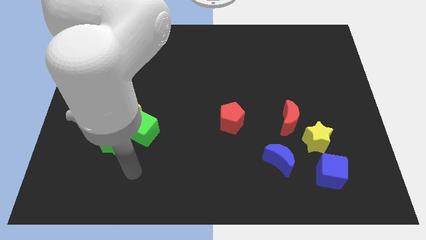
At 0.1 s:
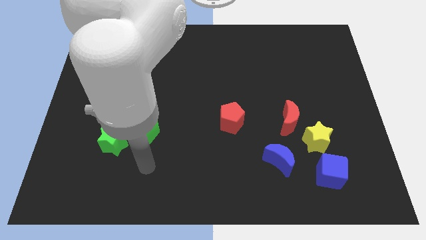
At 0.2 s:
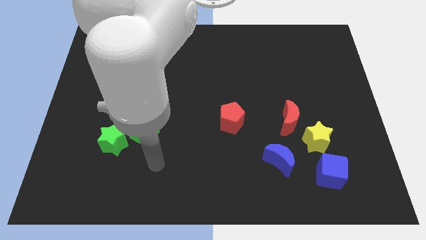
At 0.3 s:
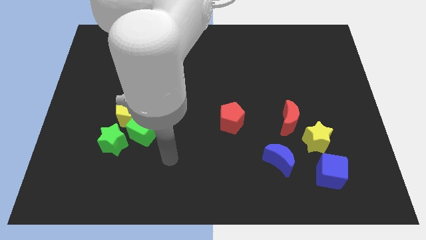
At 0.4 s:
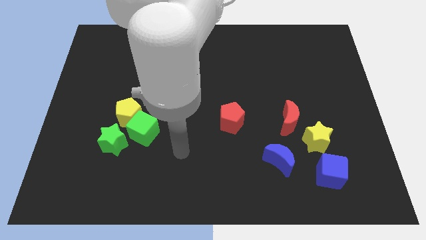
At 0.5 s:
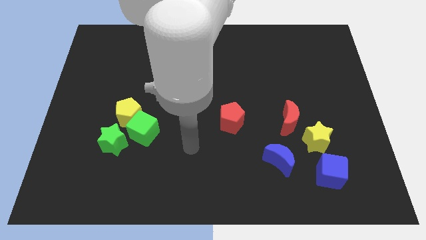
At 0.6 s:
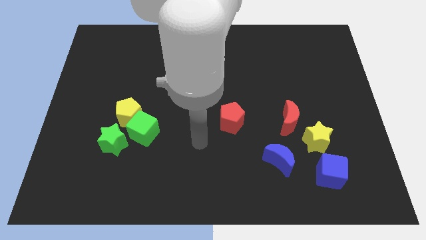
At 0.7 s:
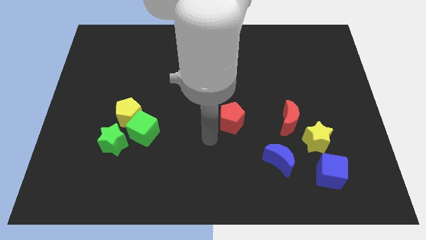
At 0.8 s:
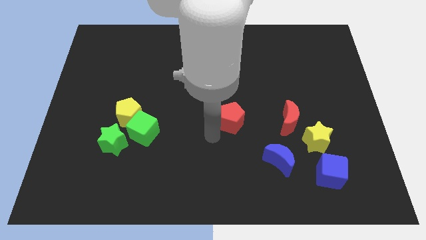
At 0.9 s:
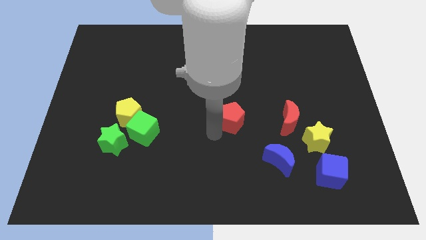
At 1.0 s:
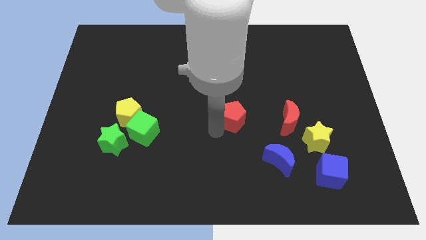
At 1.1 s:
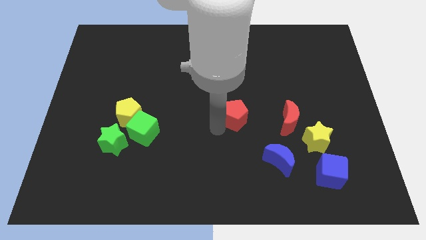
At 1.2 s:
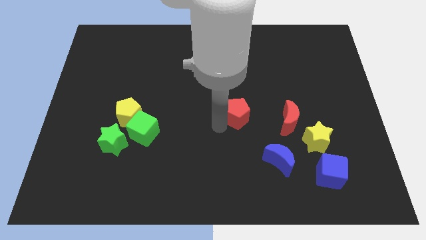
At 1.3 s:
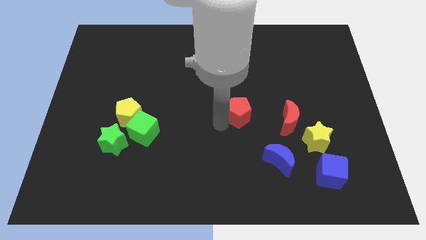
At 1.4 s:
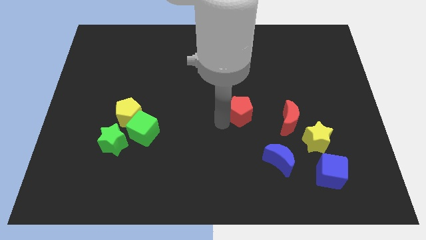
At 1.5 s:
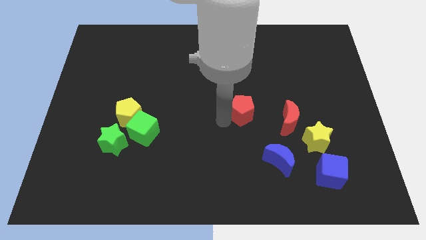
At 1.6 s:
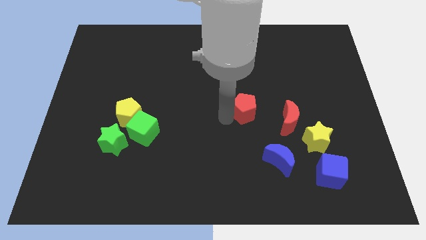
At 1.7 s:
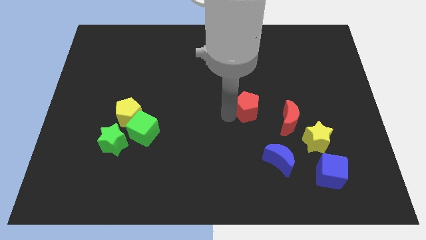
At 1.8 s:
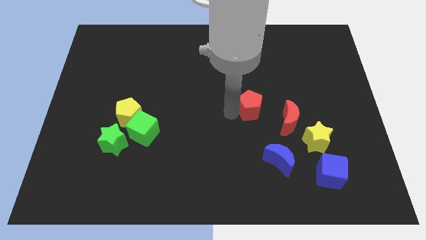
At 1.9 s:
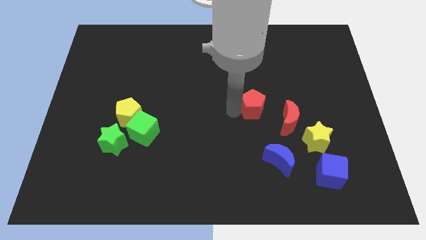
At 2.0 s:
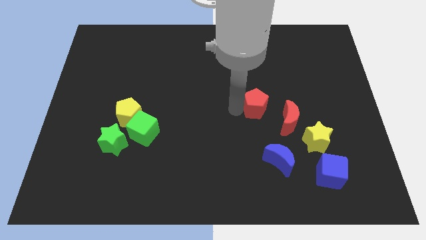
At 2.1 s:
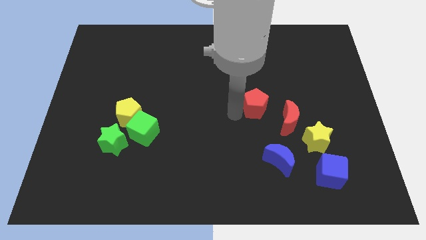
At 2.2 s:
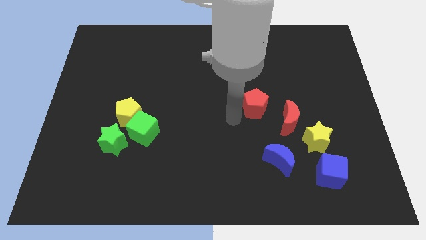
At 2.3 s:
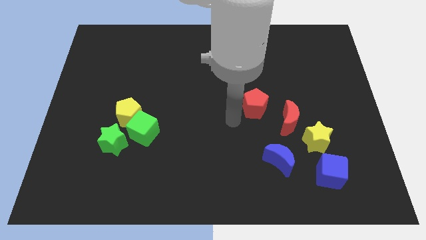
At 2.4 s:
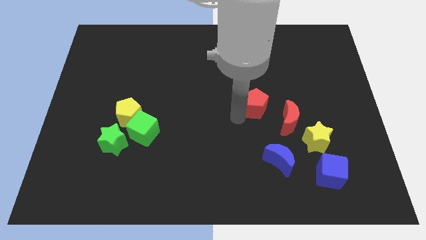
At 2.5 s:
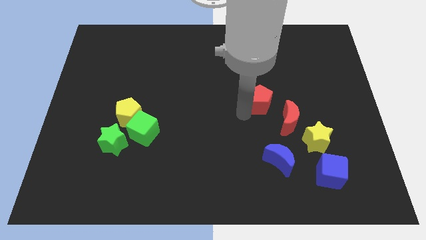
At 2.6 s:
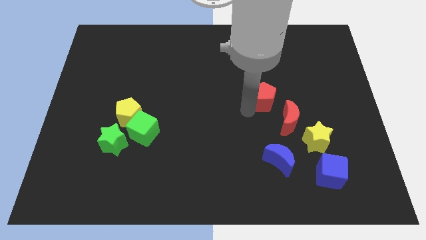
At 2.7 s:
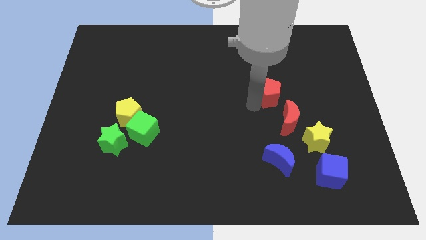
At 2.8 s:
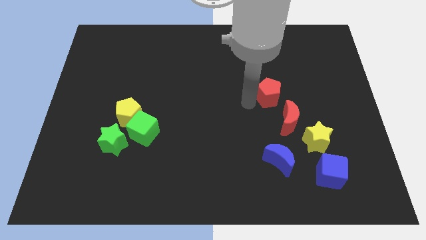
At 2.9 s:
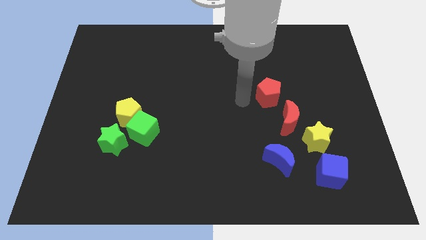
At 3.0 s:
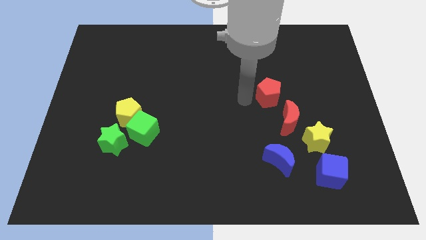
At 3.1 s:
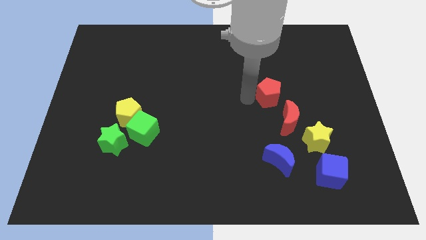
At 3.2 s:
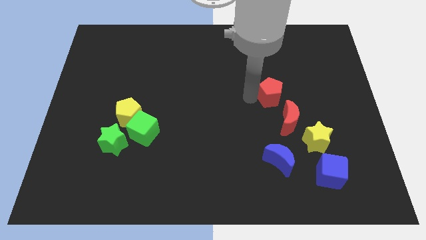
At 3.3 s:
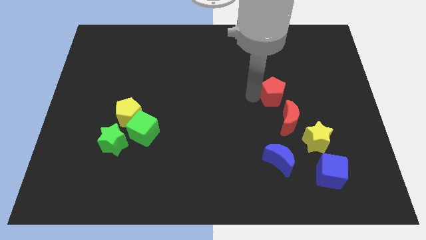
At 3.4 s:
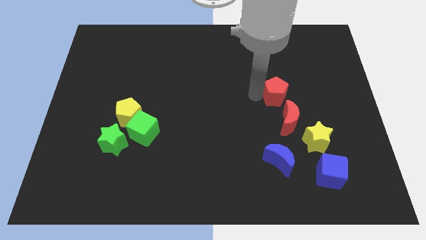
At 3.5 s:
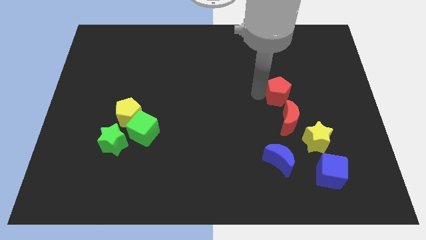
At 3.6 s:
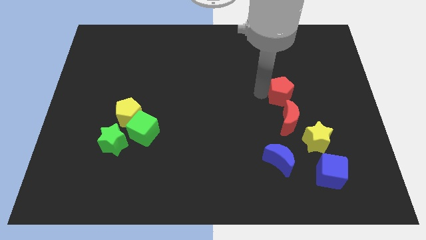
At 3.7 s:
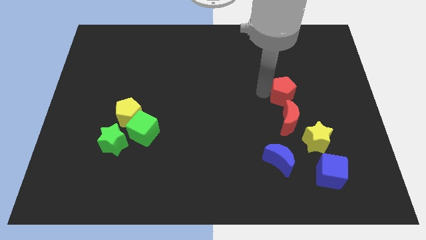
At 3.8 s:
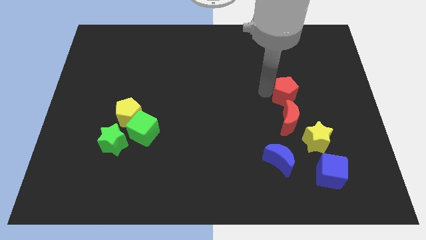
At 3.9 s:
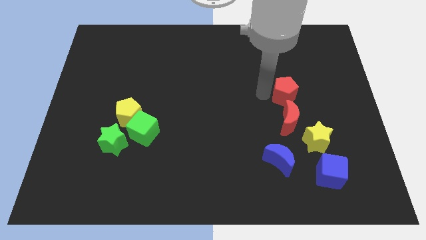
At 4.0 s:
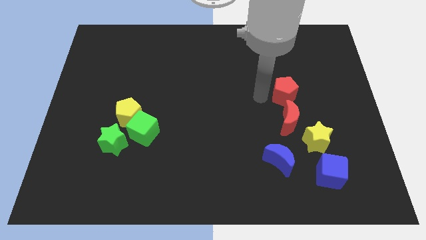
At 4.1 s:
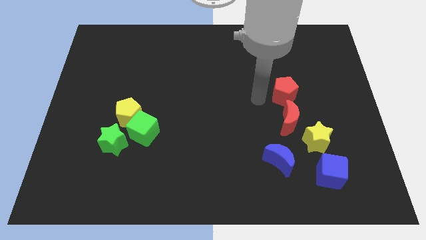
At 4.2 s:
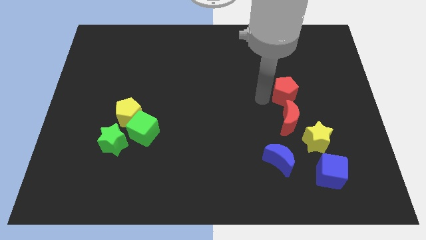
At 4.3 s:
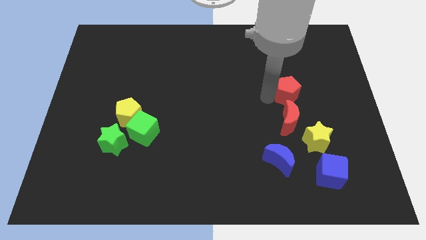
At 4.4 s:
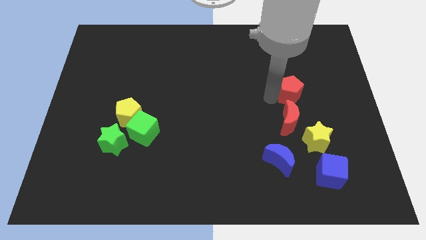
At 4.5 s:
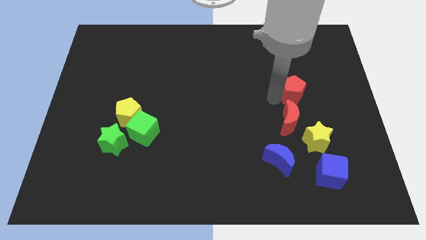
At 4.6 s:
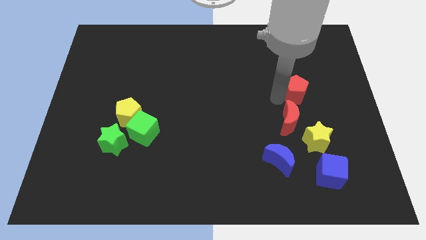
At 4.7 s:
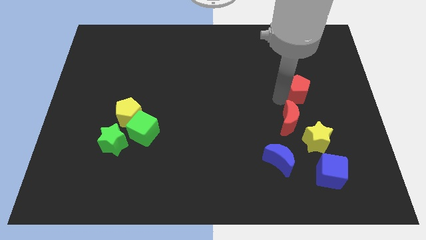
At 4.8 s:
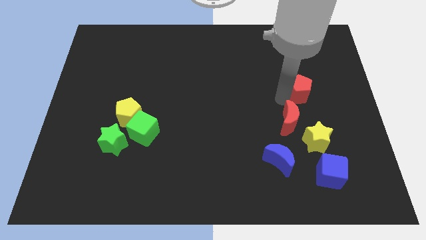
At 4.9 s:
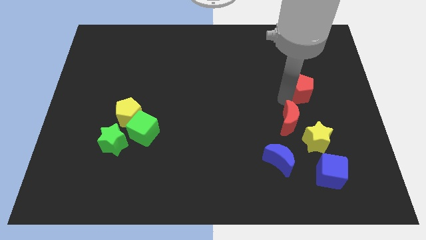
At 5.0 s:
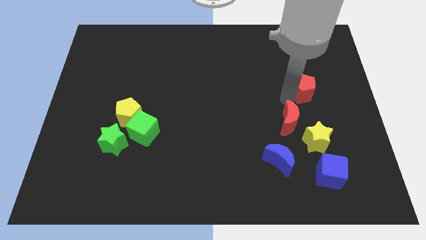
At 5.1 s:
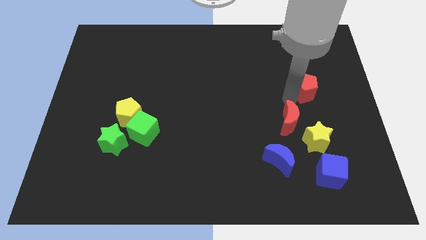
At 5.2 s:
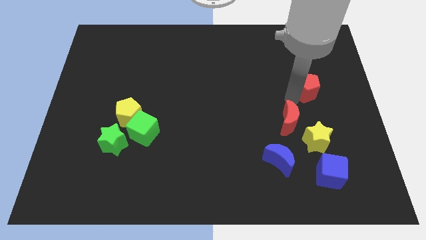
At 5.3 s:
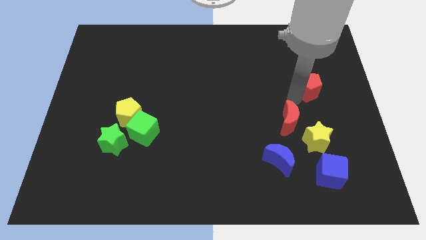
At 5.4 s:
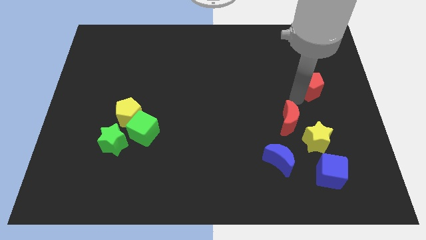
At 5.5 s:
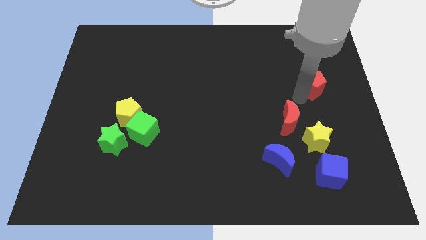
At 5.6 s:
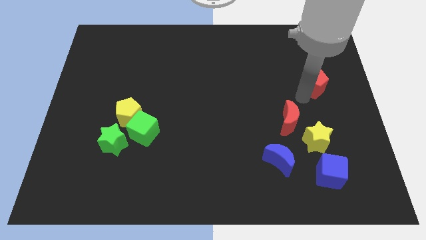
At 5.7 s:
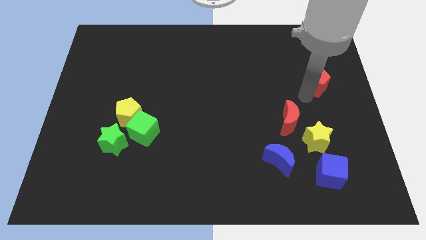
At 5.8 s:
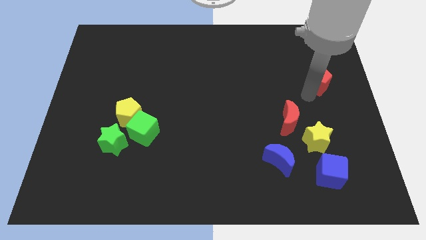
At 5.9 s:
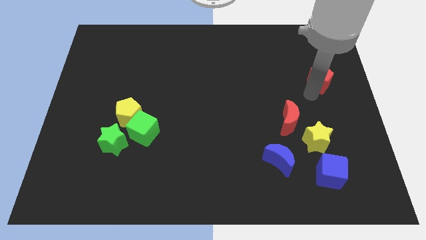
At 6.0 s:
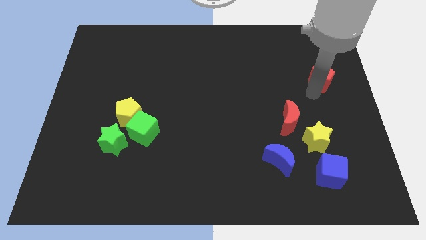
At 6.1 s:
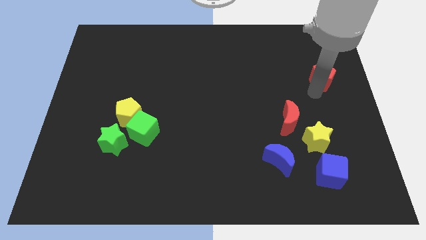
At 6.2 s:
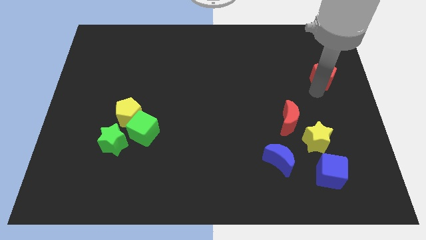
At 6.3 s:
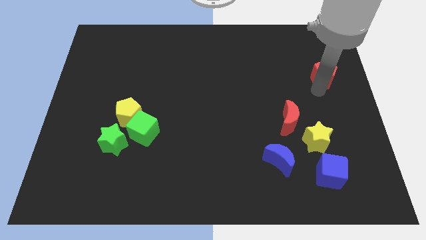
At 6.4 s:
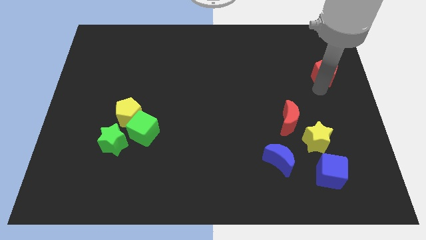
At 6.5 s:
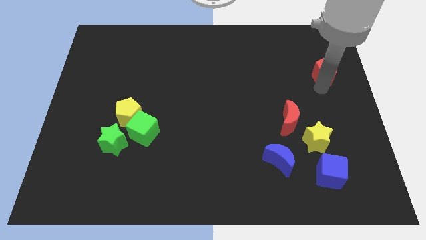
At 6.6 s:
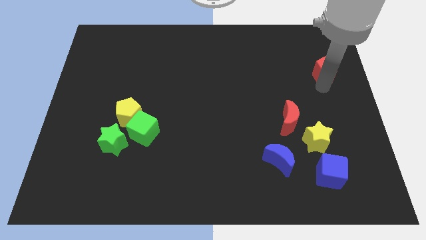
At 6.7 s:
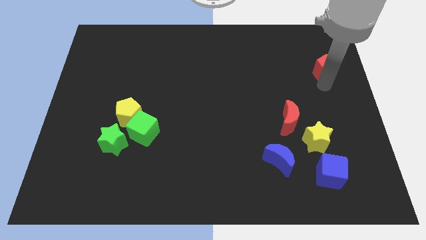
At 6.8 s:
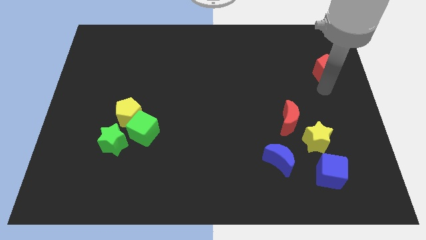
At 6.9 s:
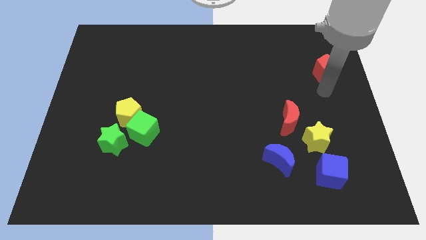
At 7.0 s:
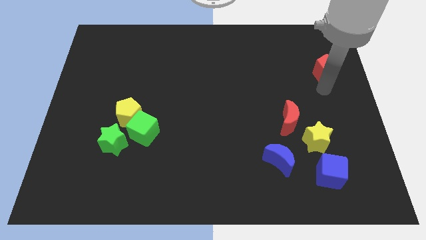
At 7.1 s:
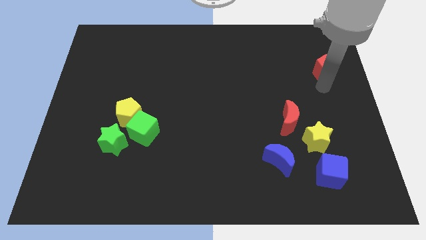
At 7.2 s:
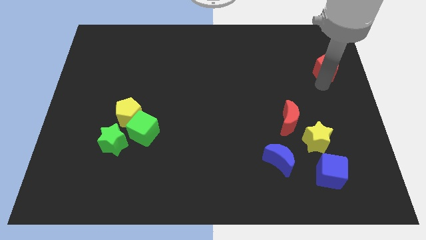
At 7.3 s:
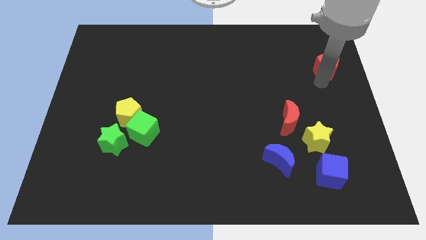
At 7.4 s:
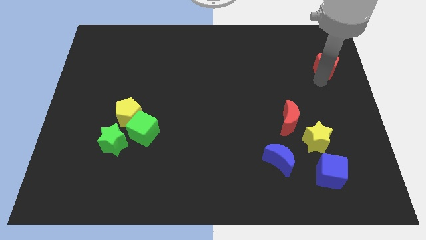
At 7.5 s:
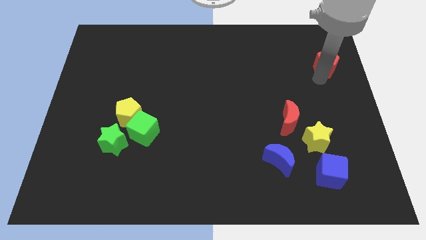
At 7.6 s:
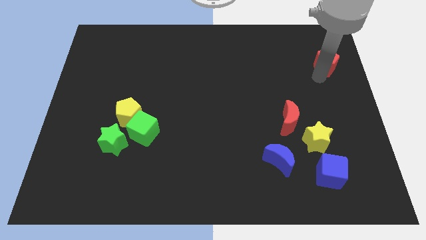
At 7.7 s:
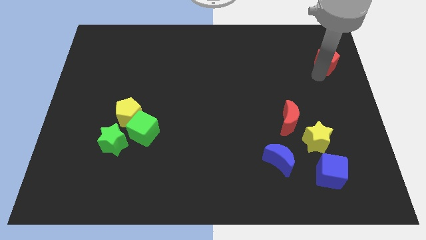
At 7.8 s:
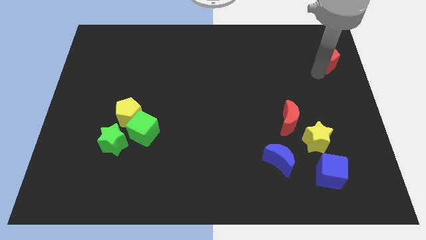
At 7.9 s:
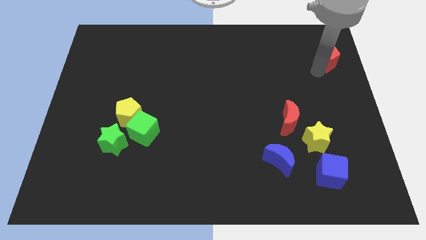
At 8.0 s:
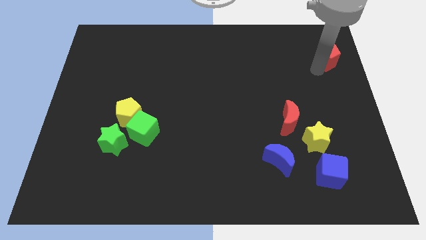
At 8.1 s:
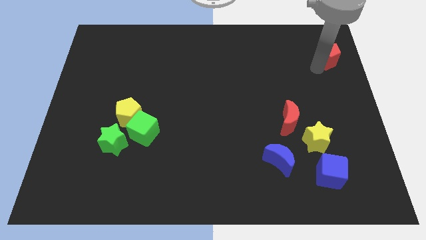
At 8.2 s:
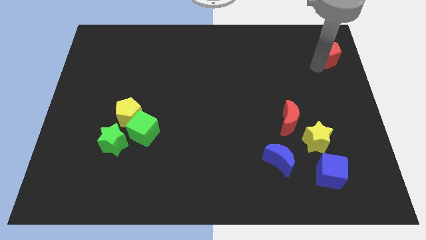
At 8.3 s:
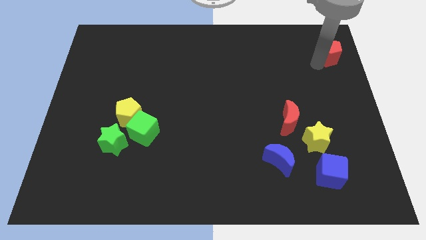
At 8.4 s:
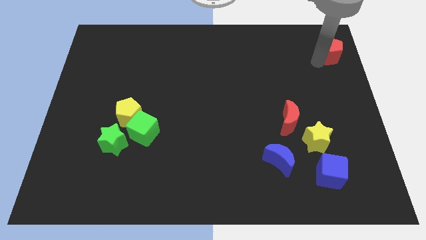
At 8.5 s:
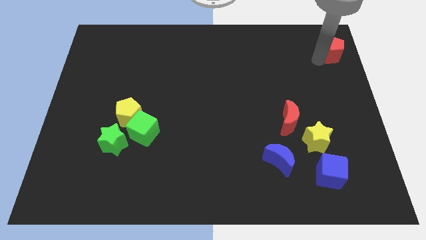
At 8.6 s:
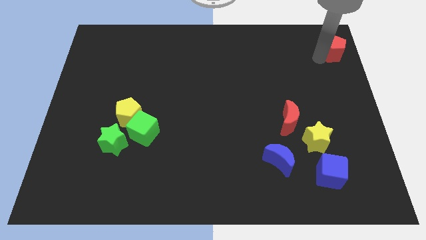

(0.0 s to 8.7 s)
slide the red pentagon to the upper right corner
